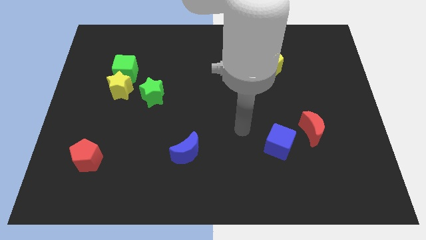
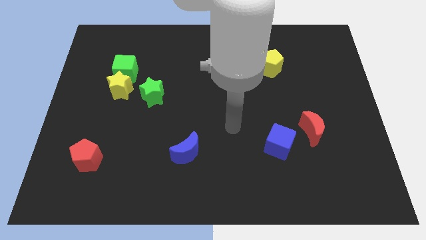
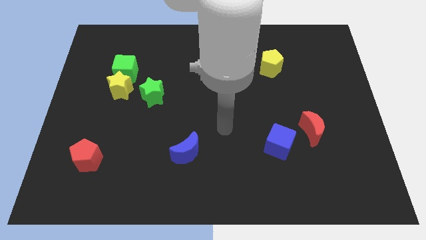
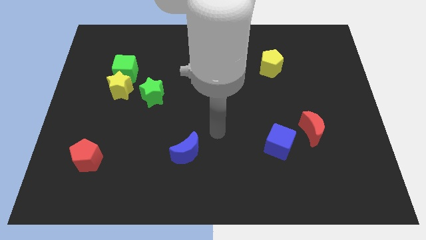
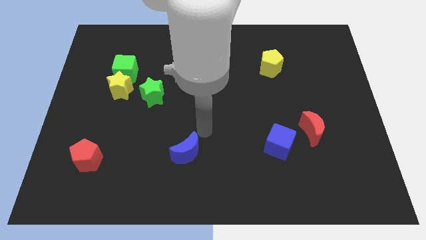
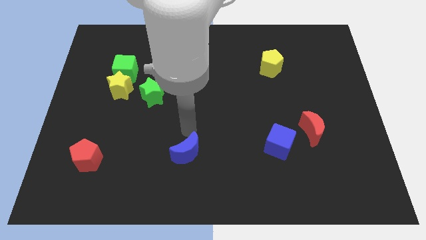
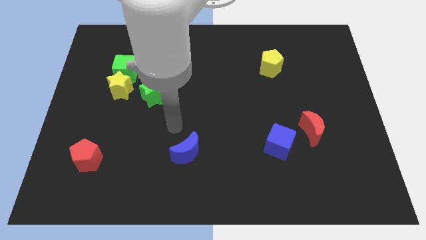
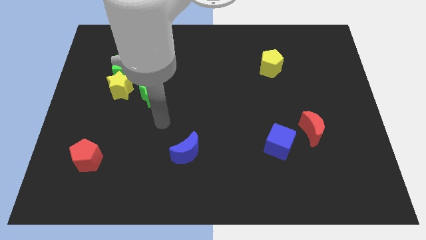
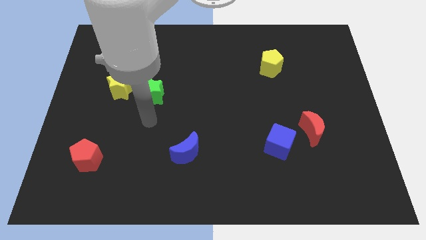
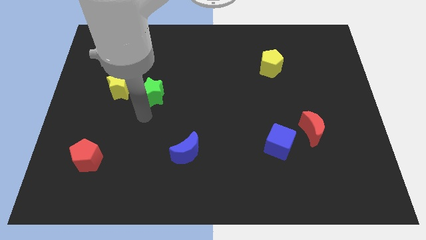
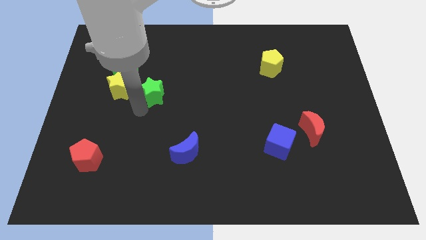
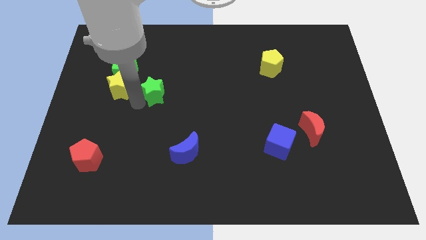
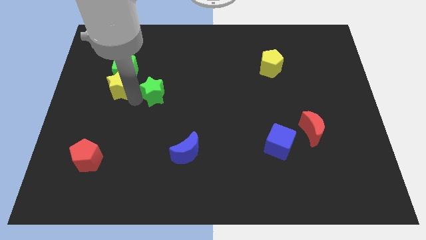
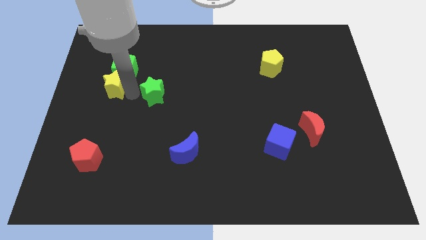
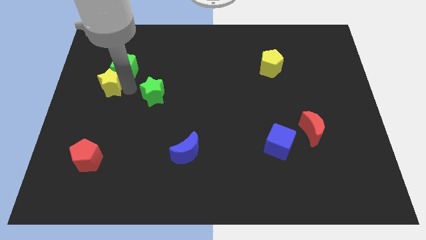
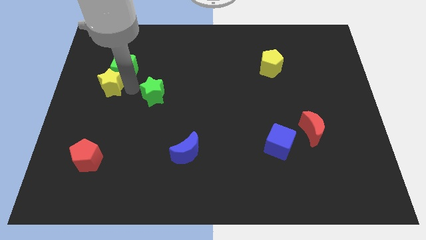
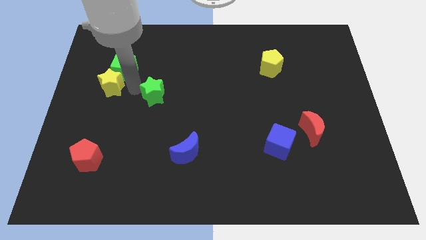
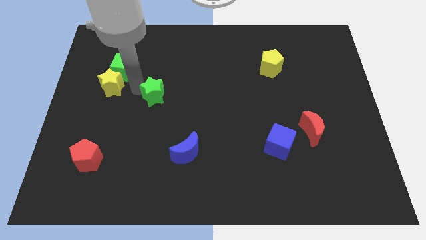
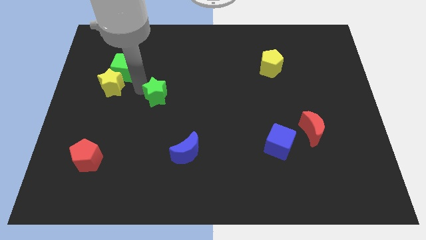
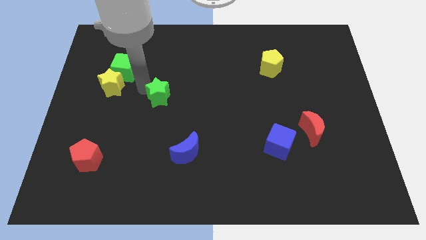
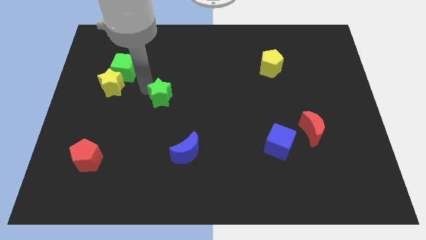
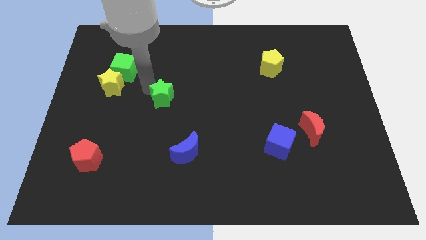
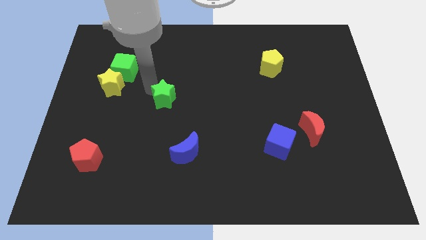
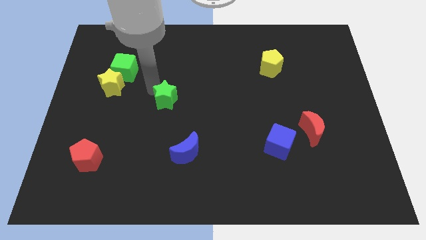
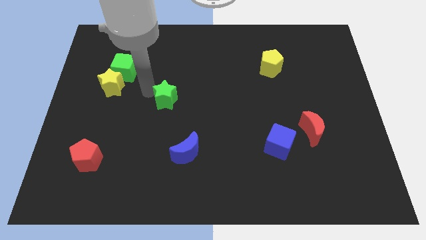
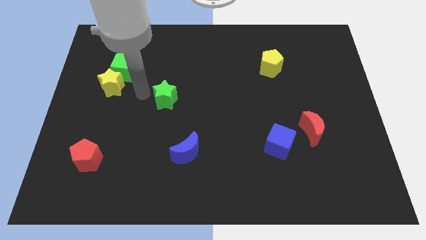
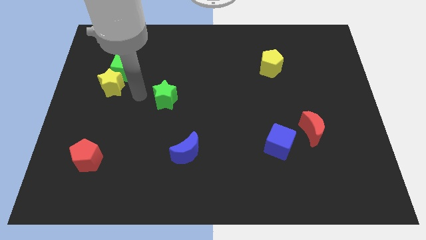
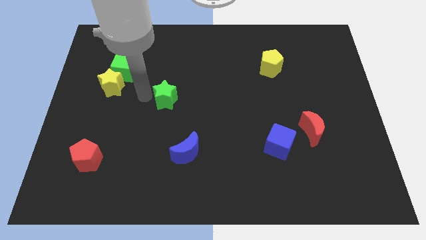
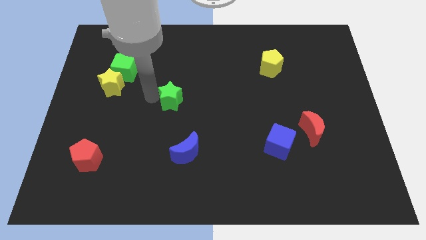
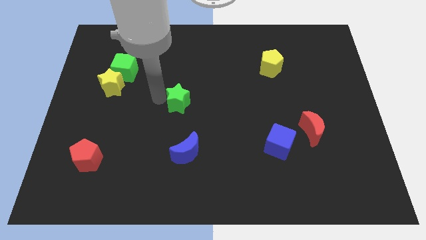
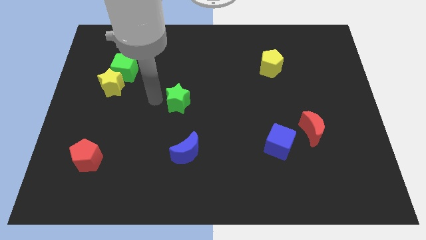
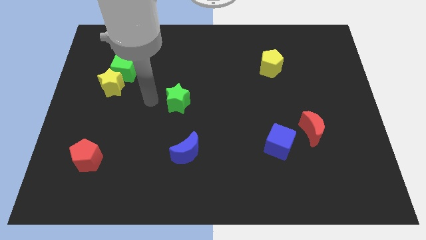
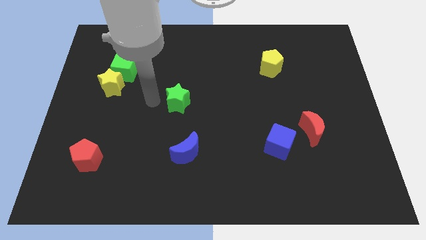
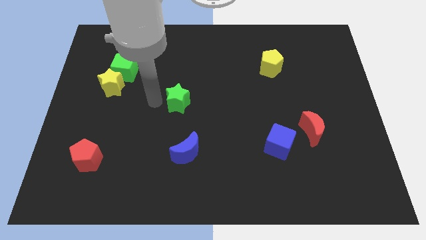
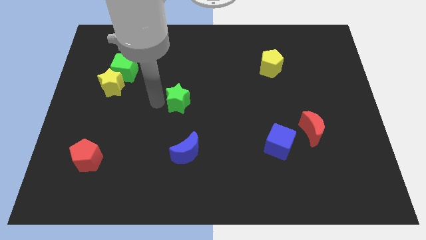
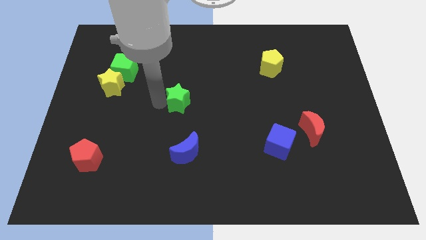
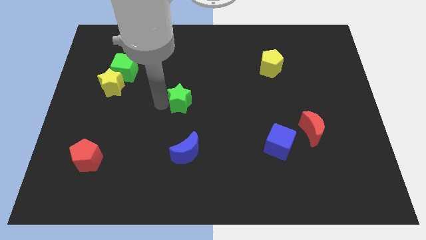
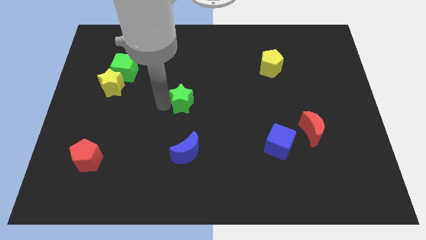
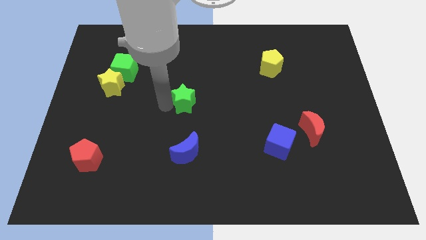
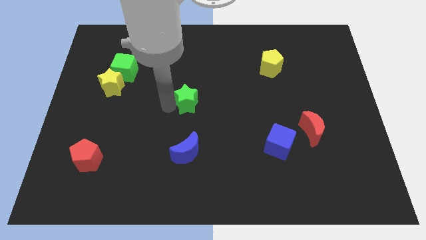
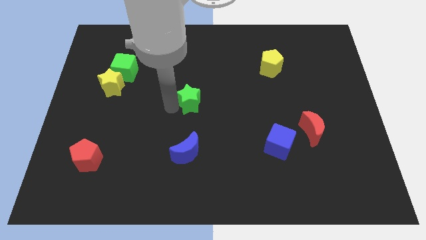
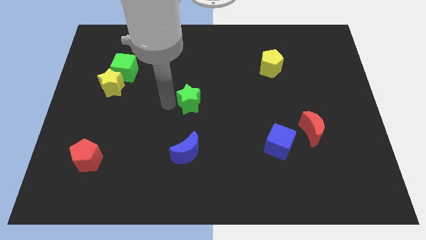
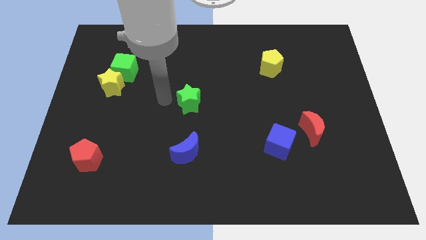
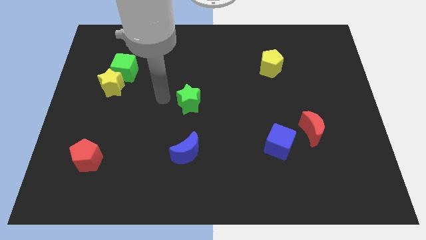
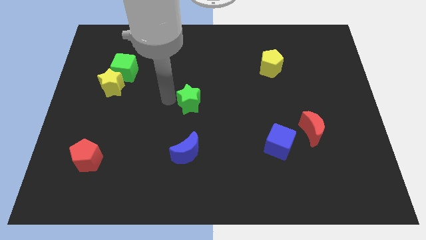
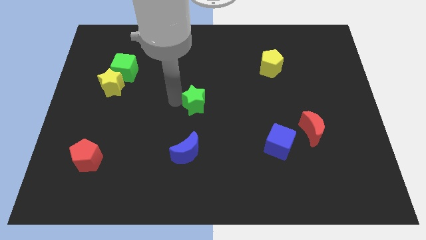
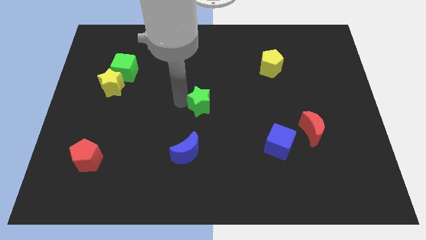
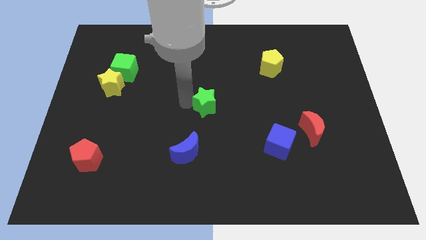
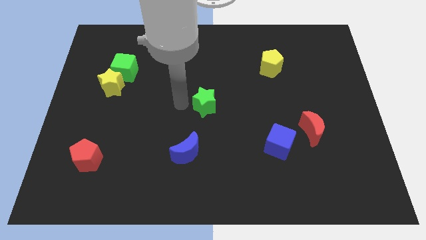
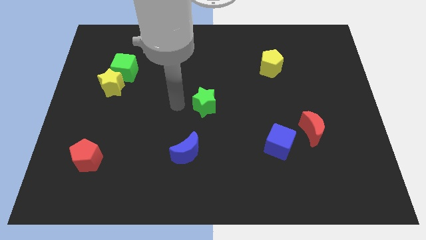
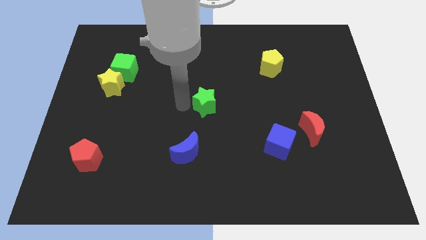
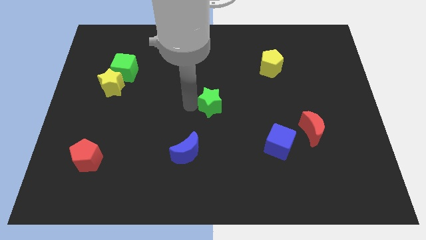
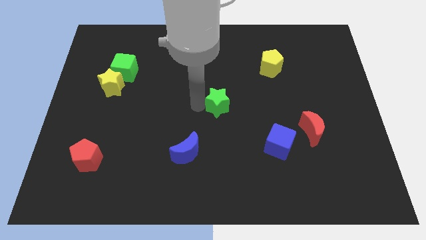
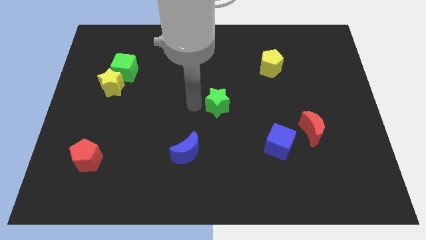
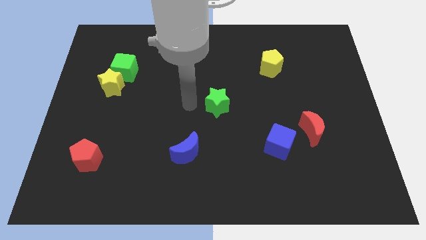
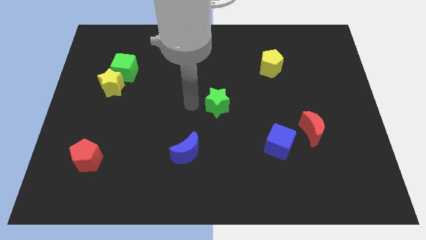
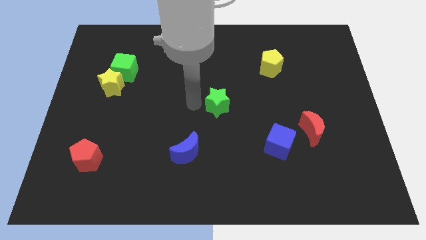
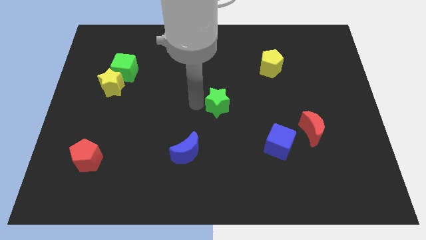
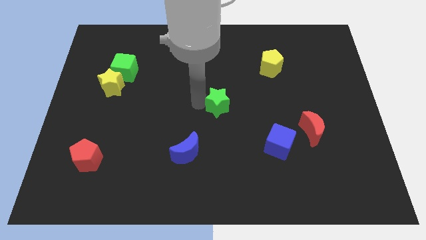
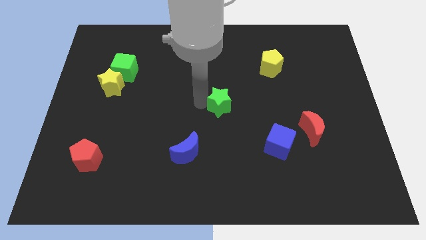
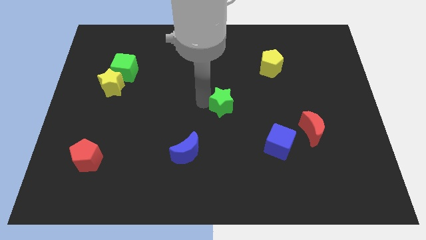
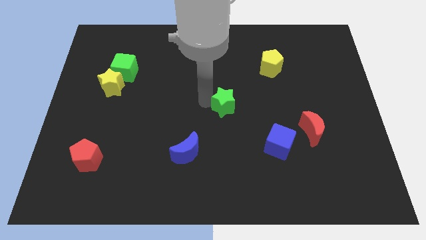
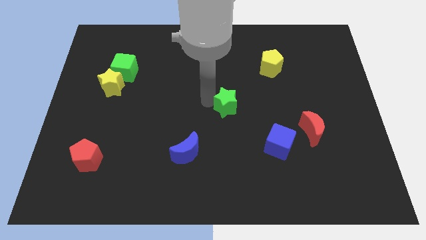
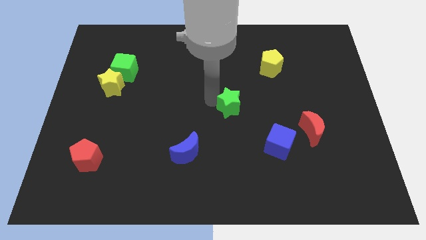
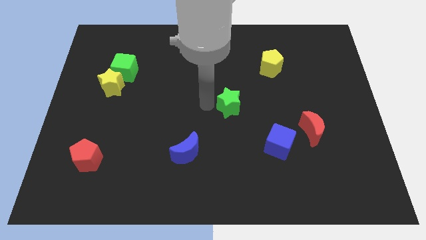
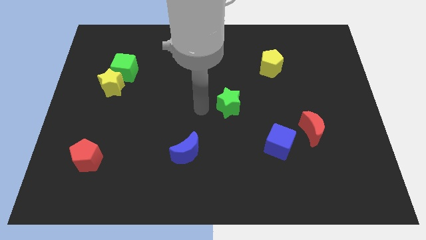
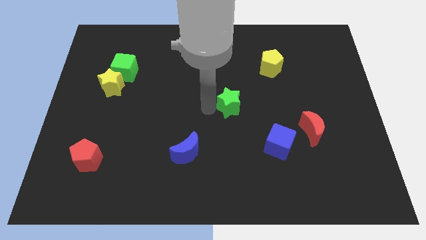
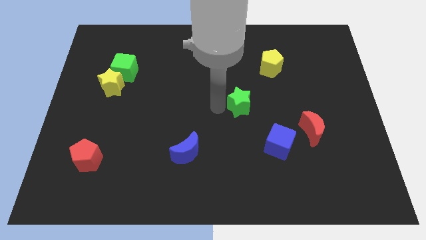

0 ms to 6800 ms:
move the green star right
